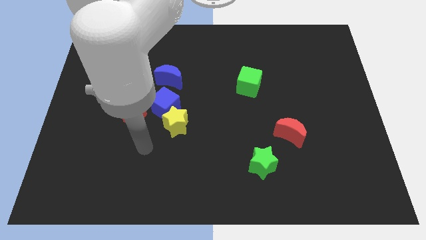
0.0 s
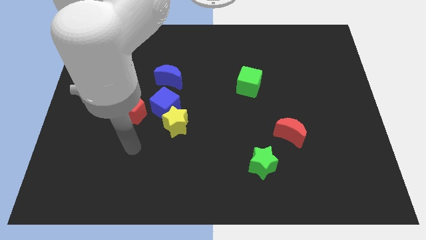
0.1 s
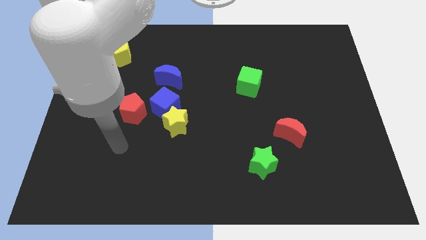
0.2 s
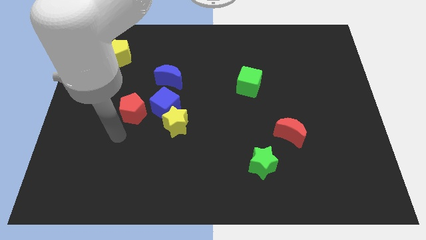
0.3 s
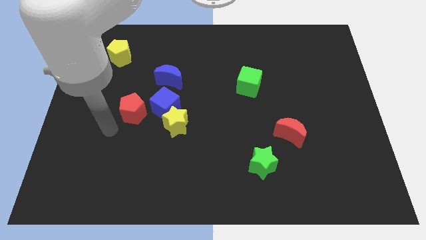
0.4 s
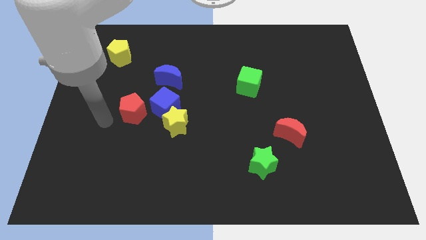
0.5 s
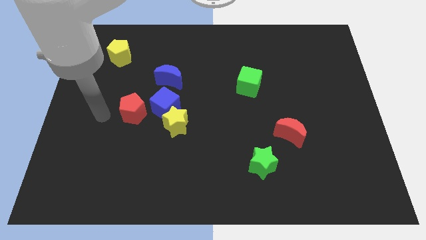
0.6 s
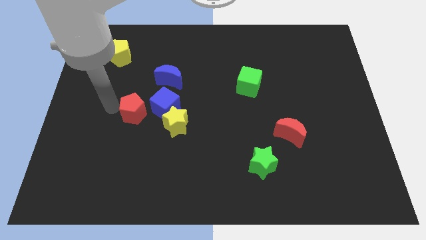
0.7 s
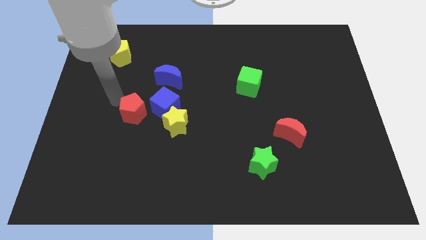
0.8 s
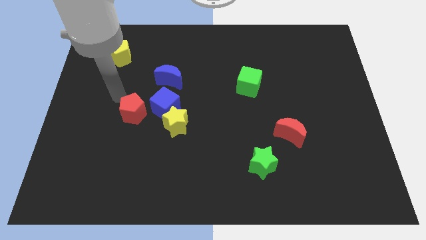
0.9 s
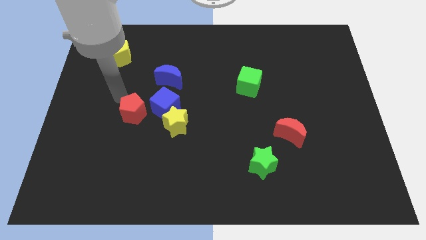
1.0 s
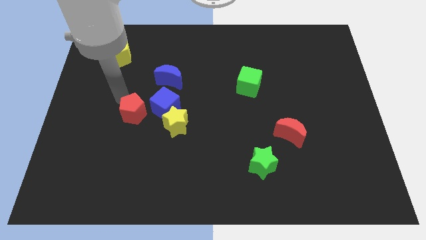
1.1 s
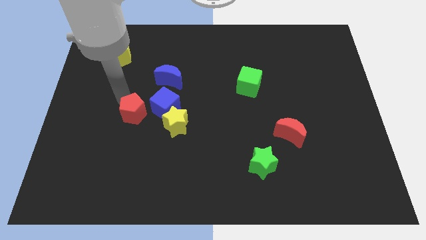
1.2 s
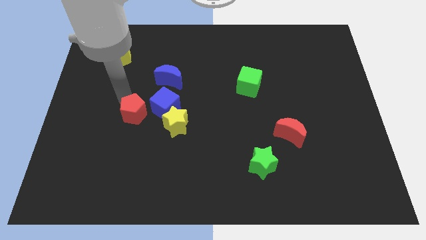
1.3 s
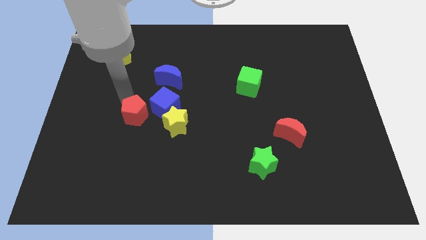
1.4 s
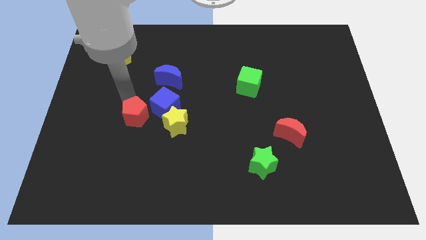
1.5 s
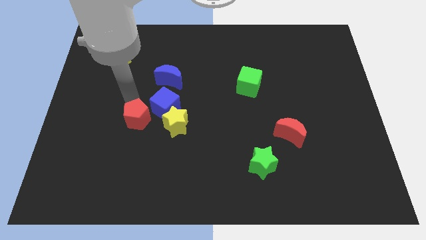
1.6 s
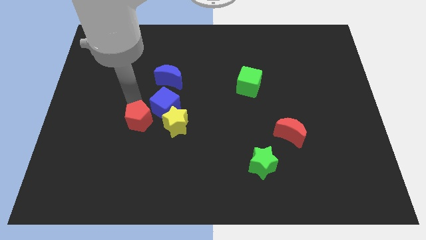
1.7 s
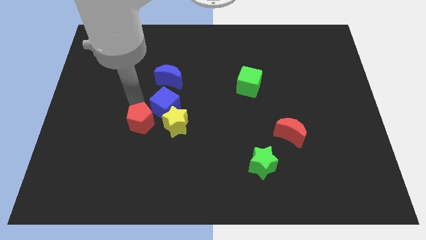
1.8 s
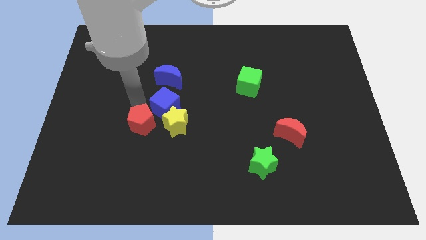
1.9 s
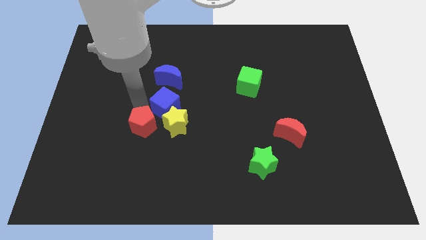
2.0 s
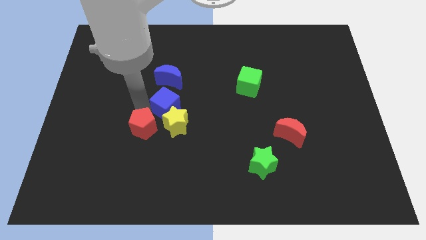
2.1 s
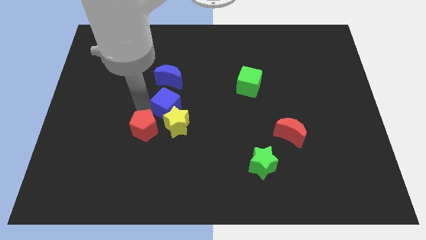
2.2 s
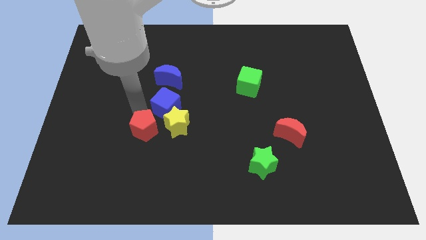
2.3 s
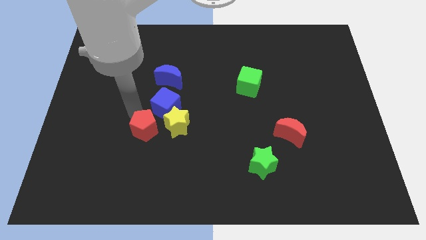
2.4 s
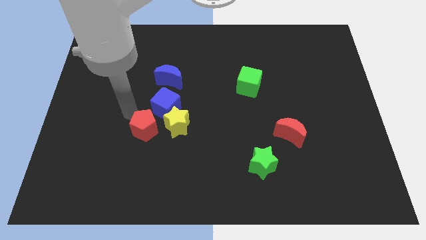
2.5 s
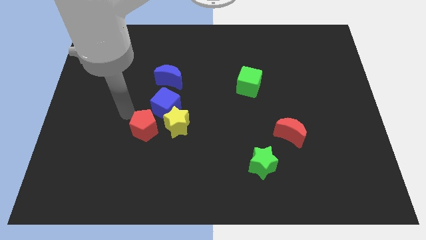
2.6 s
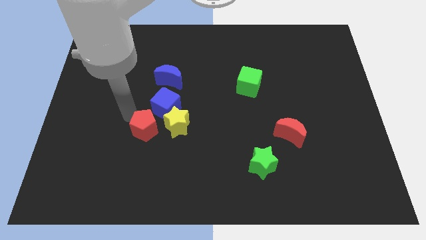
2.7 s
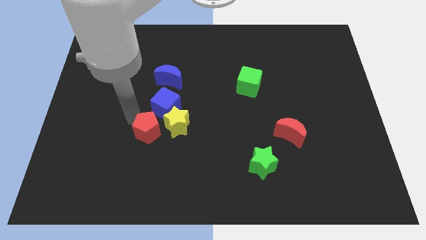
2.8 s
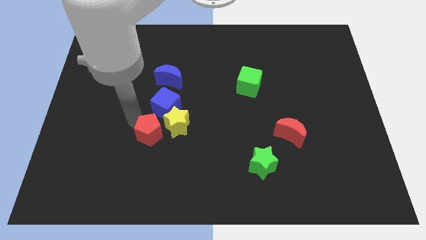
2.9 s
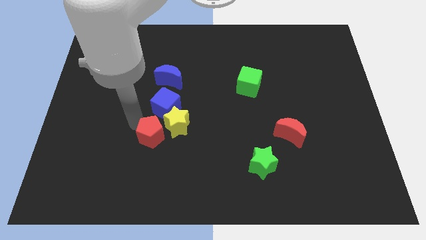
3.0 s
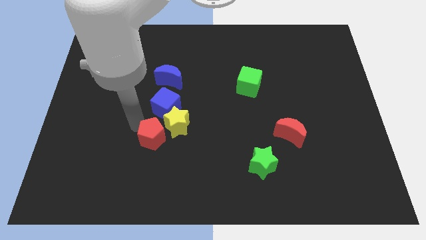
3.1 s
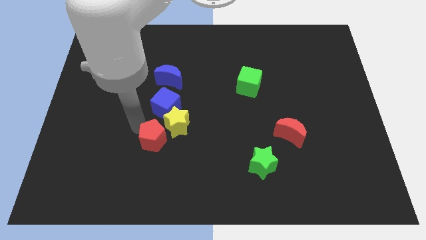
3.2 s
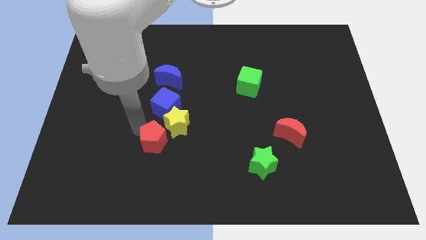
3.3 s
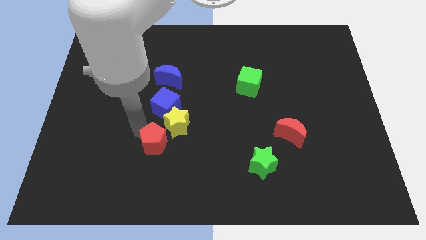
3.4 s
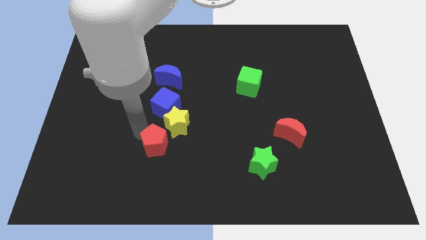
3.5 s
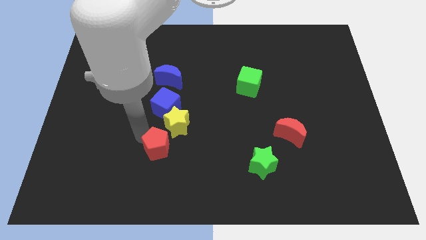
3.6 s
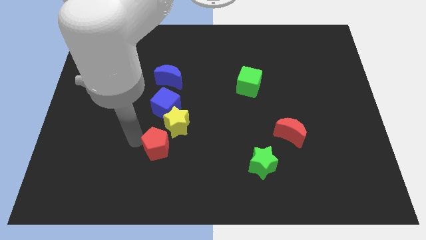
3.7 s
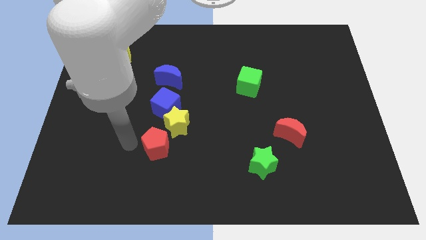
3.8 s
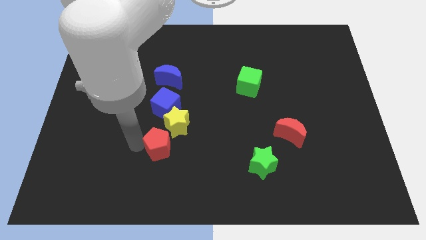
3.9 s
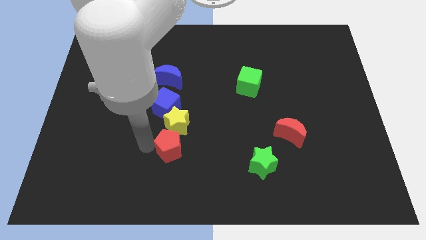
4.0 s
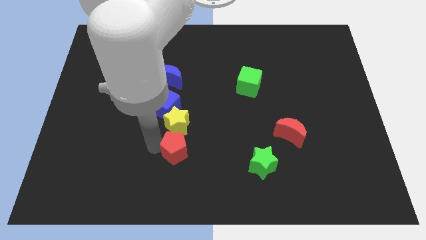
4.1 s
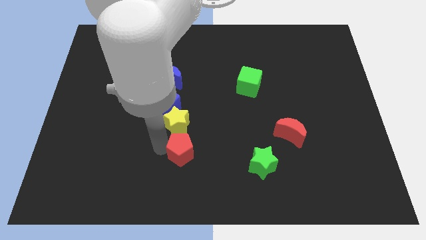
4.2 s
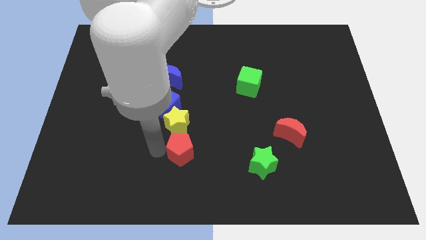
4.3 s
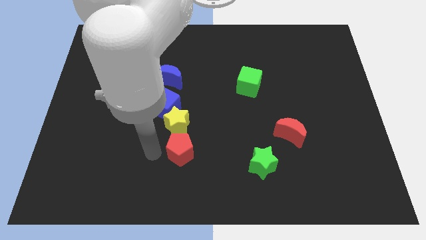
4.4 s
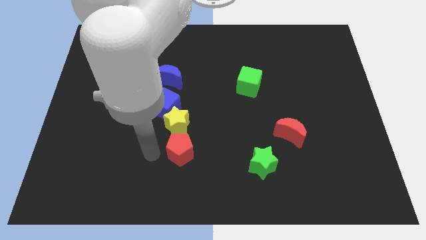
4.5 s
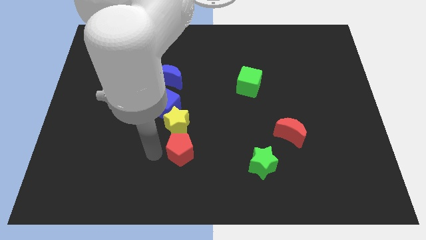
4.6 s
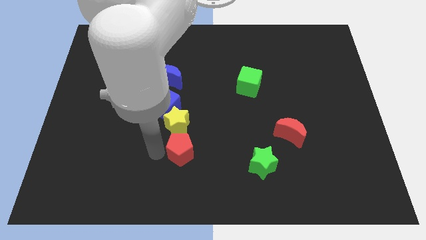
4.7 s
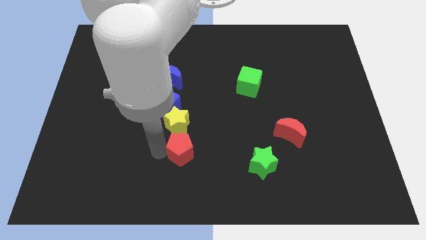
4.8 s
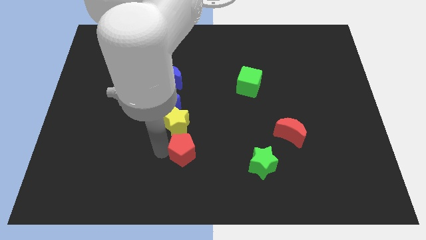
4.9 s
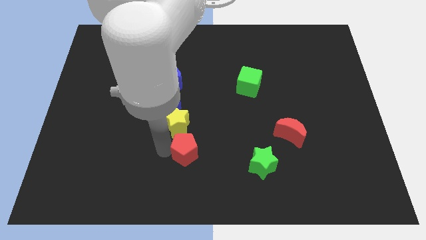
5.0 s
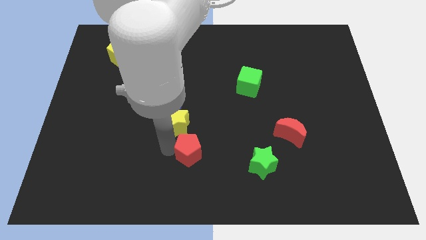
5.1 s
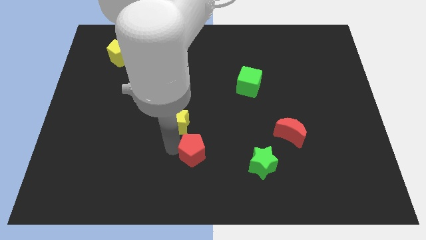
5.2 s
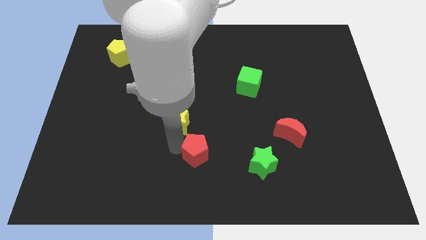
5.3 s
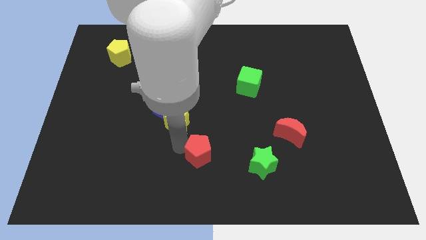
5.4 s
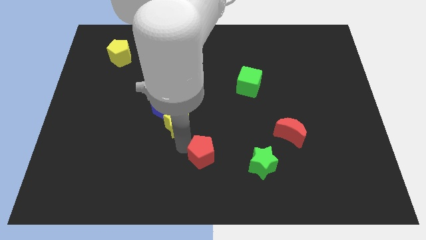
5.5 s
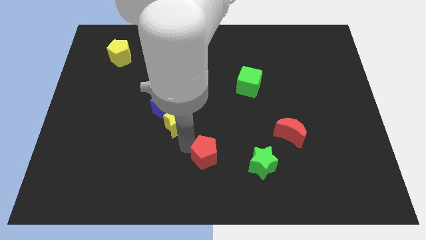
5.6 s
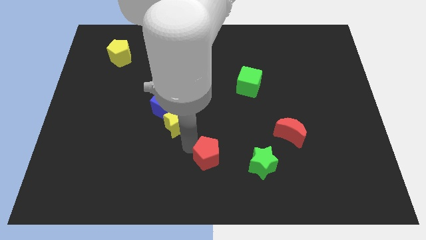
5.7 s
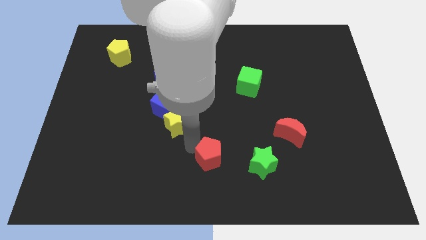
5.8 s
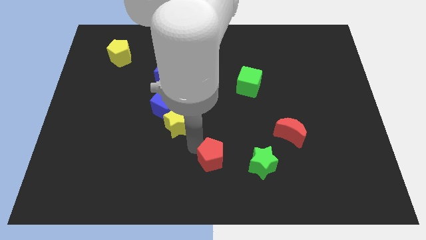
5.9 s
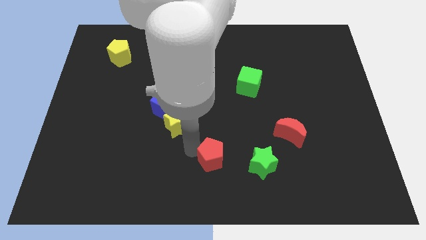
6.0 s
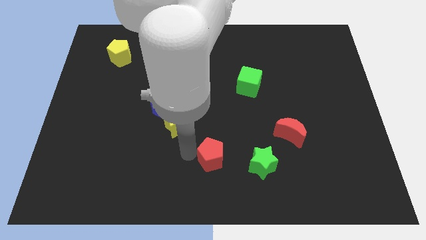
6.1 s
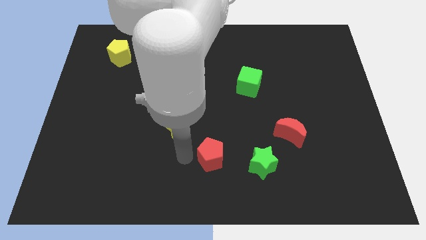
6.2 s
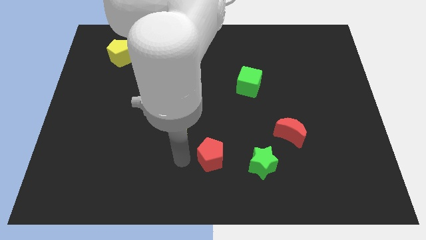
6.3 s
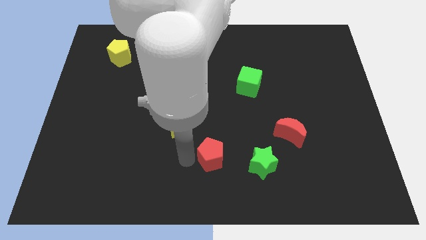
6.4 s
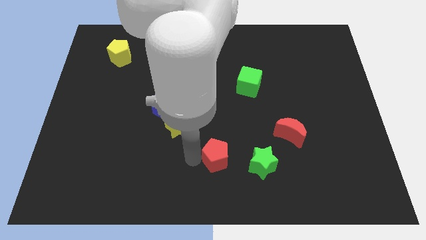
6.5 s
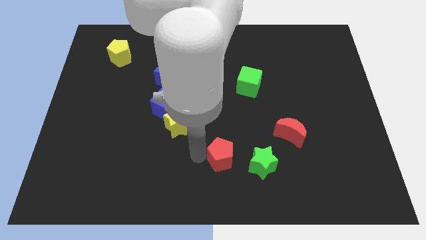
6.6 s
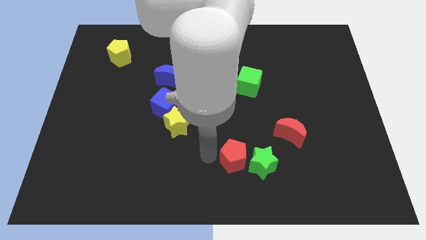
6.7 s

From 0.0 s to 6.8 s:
move the red pentagon close to the green star
